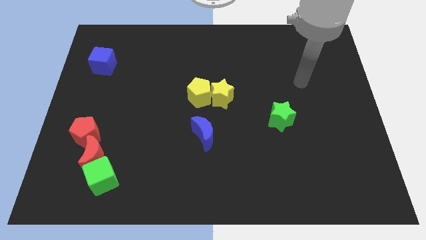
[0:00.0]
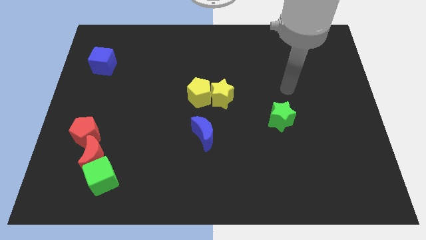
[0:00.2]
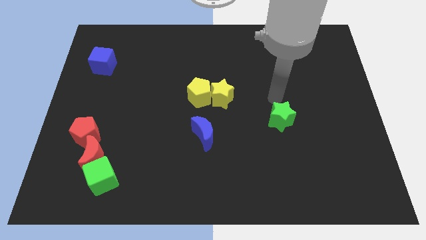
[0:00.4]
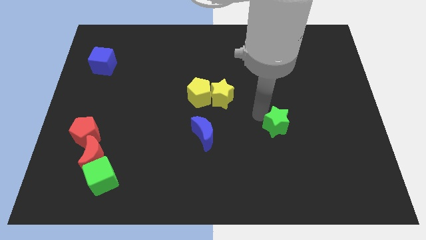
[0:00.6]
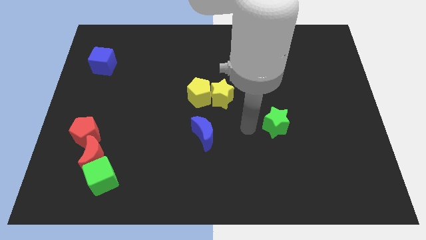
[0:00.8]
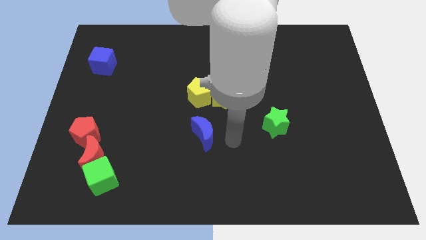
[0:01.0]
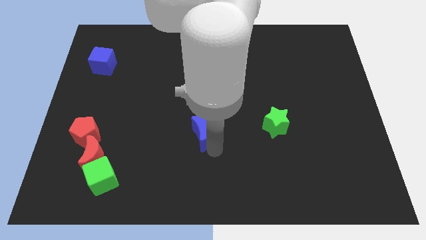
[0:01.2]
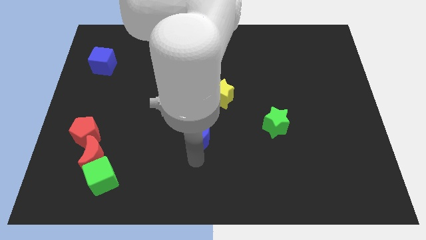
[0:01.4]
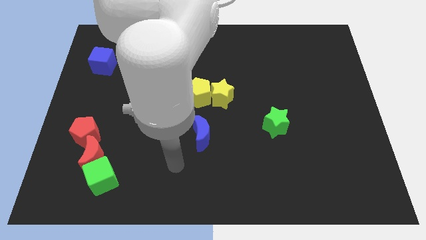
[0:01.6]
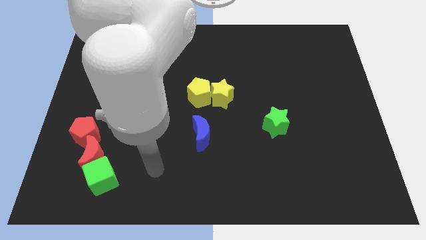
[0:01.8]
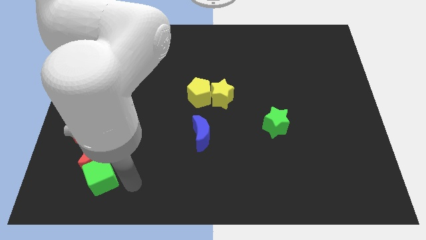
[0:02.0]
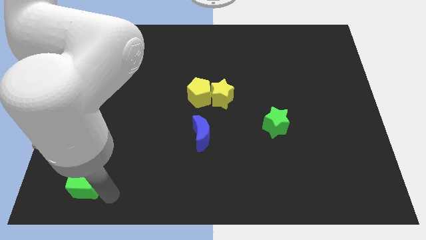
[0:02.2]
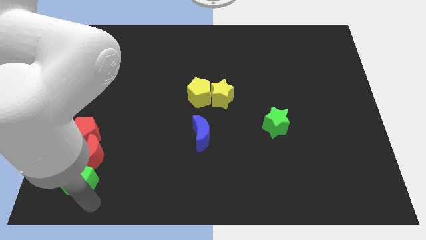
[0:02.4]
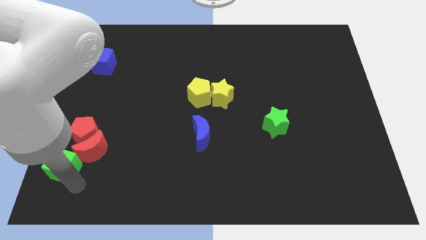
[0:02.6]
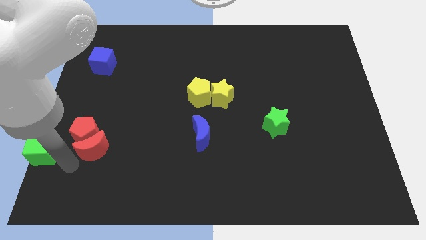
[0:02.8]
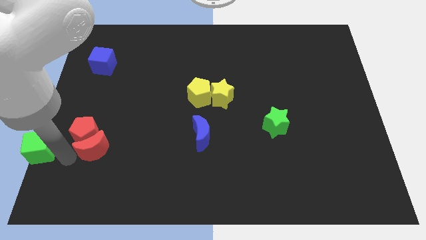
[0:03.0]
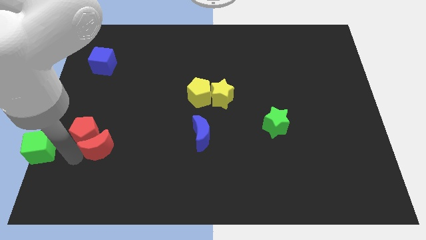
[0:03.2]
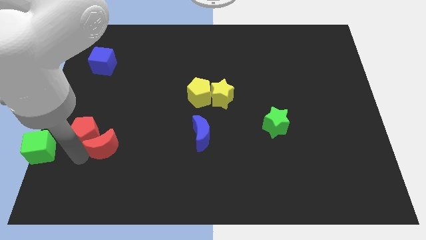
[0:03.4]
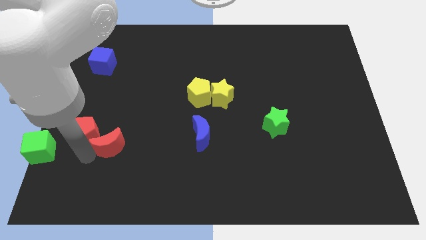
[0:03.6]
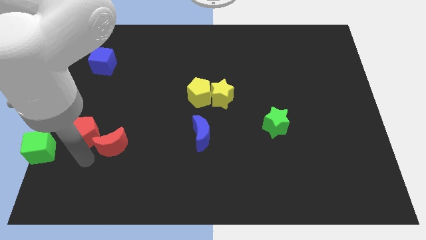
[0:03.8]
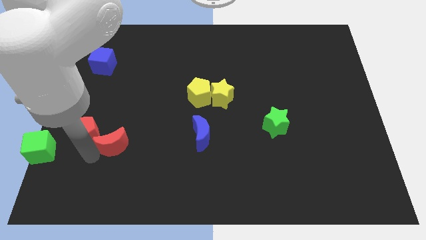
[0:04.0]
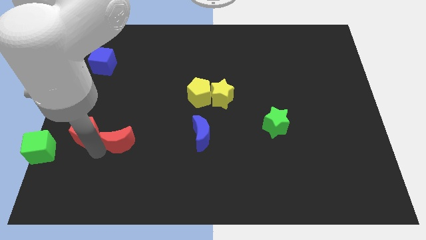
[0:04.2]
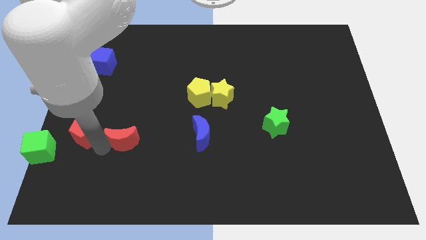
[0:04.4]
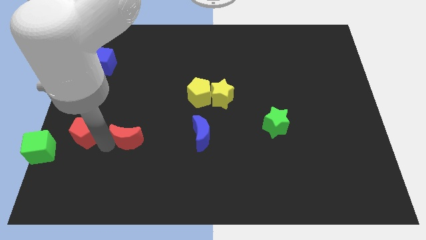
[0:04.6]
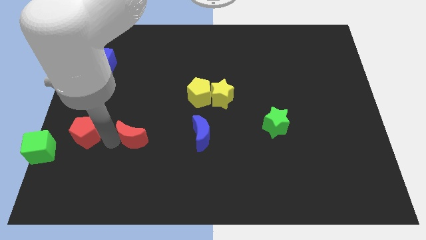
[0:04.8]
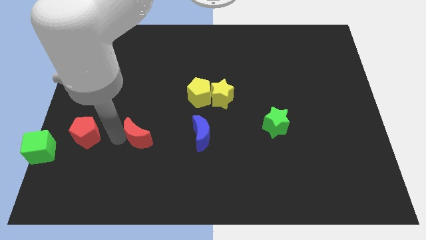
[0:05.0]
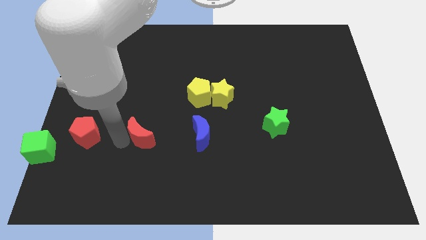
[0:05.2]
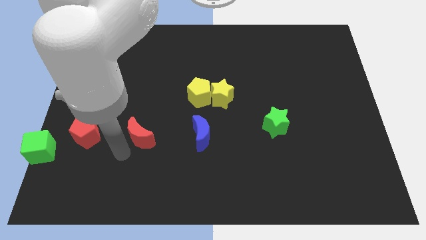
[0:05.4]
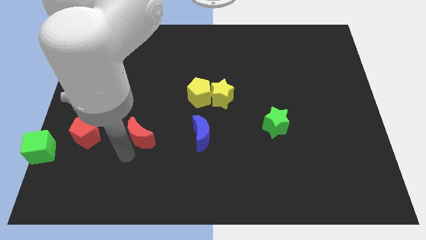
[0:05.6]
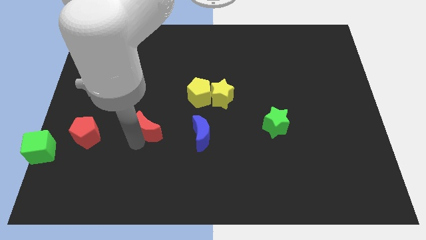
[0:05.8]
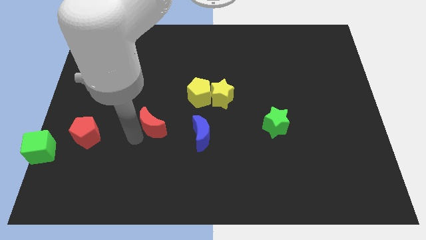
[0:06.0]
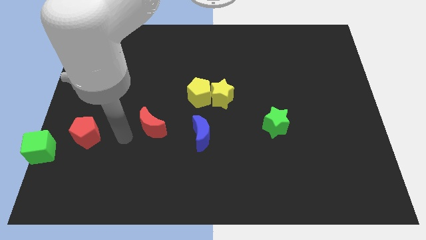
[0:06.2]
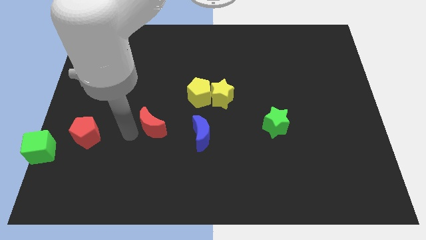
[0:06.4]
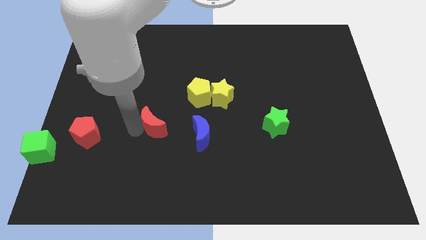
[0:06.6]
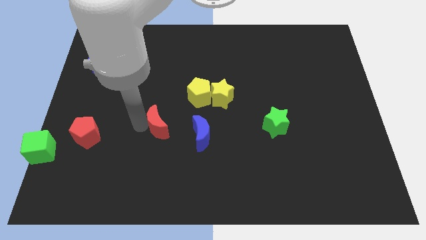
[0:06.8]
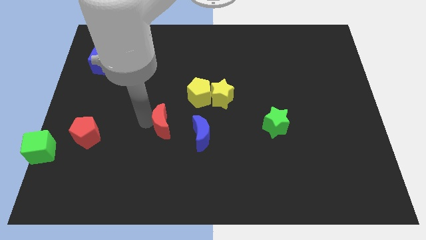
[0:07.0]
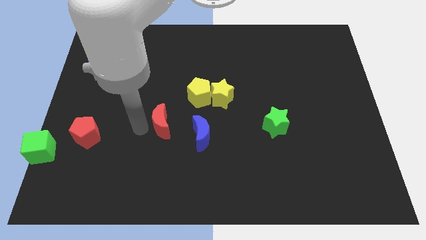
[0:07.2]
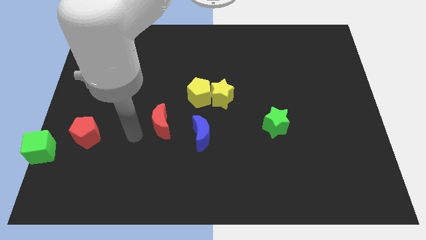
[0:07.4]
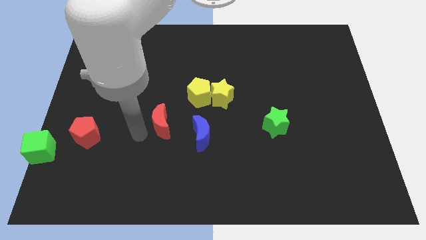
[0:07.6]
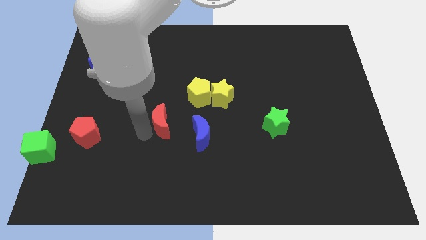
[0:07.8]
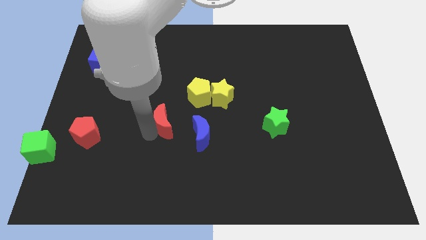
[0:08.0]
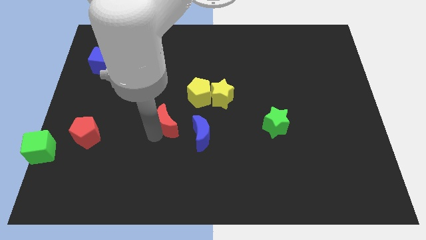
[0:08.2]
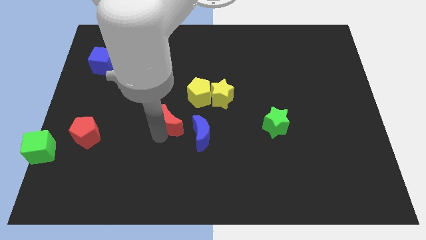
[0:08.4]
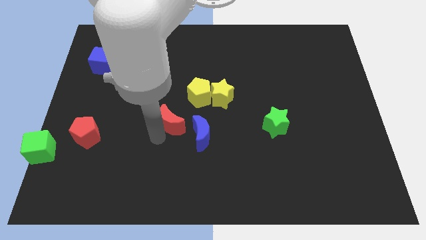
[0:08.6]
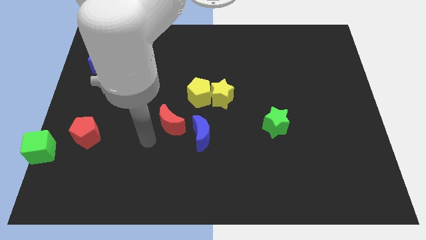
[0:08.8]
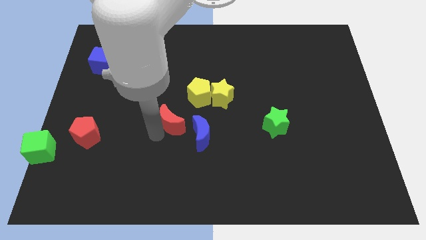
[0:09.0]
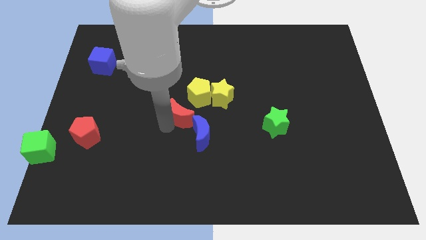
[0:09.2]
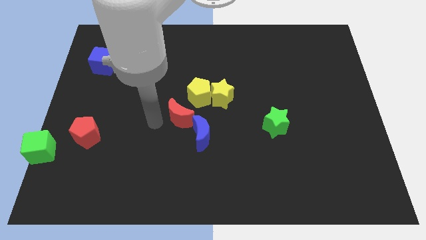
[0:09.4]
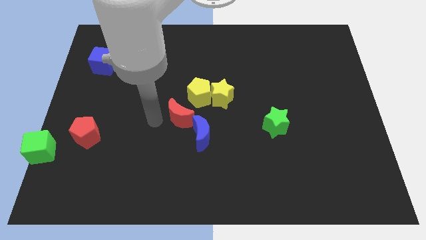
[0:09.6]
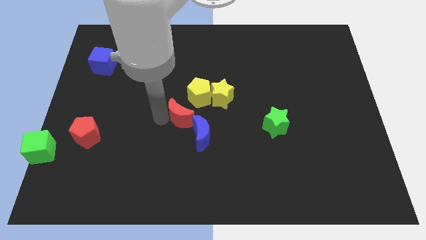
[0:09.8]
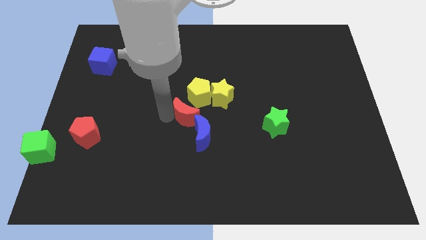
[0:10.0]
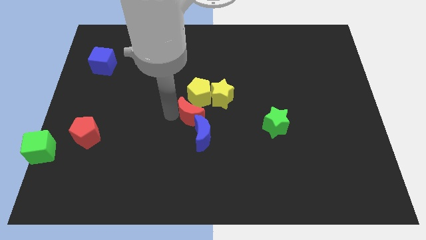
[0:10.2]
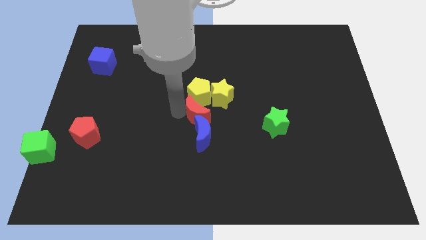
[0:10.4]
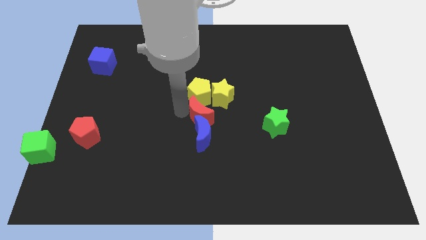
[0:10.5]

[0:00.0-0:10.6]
slide the red moon diagonally up and to the right of the blue moon

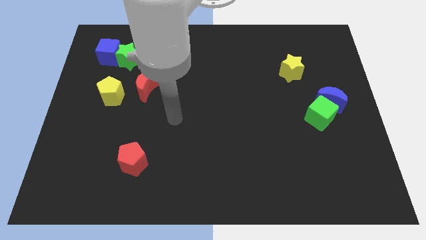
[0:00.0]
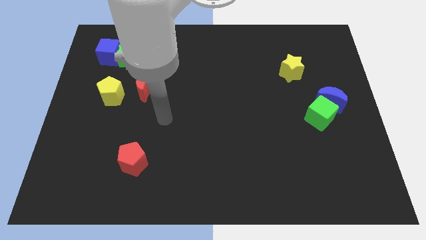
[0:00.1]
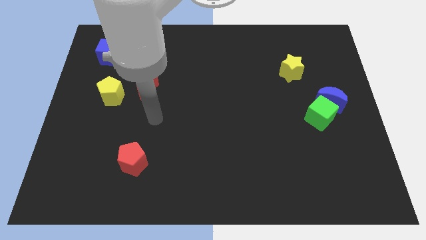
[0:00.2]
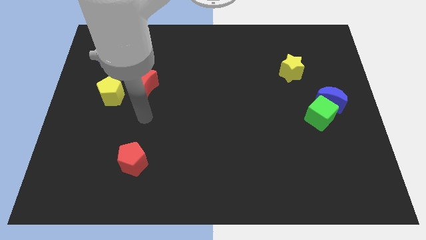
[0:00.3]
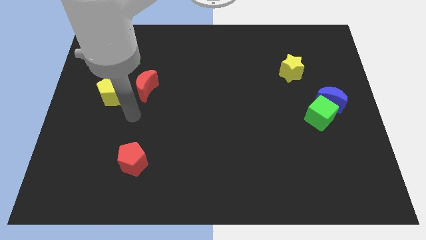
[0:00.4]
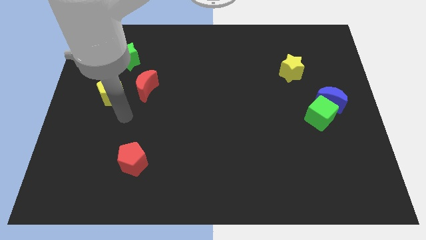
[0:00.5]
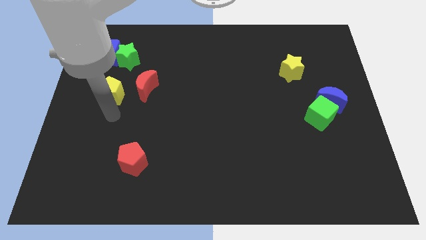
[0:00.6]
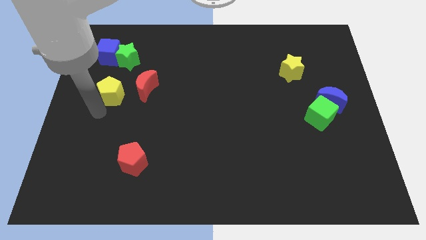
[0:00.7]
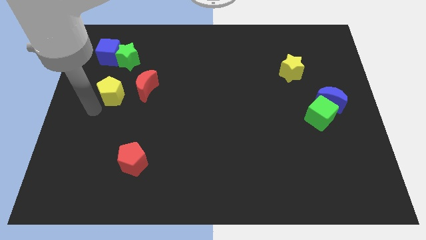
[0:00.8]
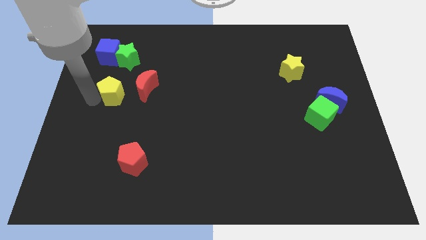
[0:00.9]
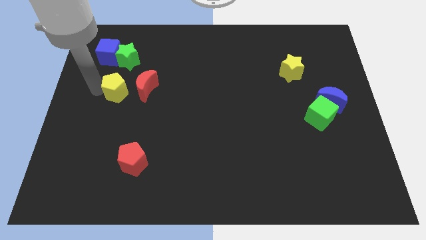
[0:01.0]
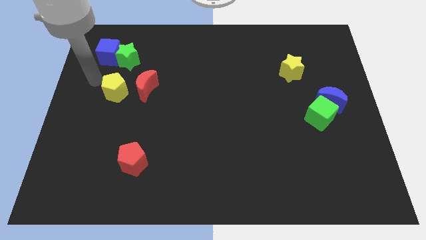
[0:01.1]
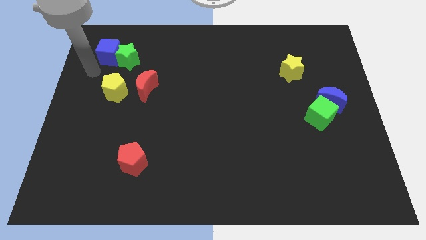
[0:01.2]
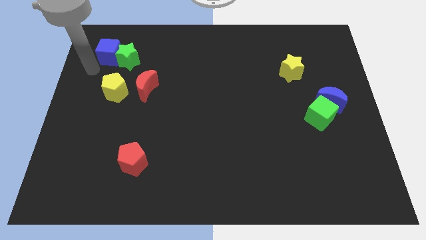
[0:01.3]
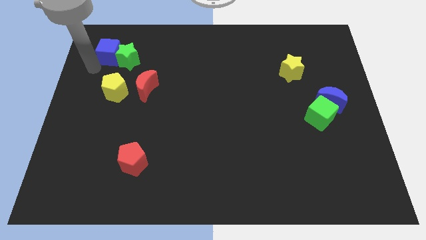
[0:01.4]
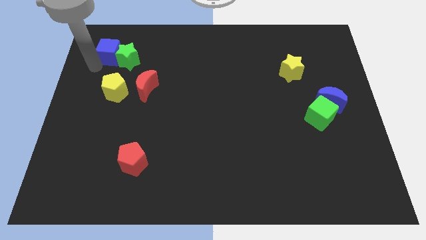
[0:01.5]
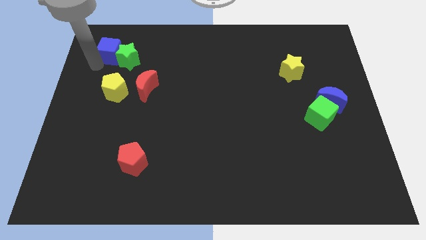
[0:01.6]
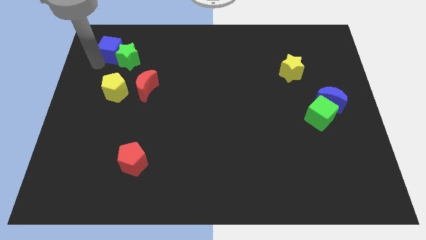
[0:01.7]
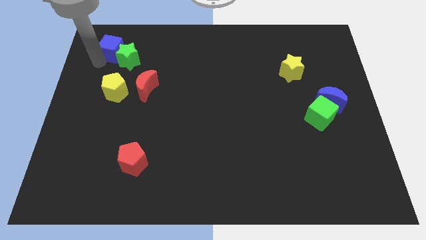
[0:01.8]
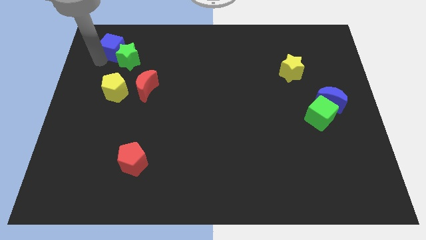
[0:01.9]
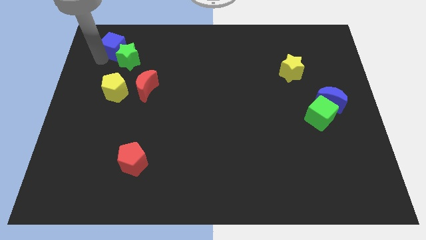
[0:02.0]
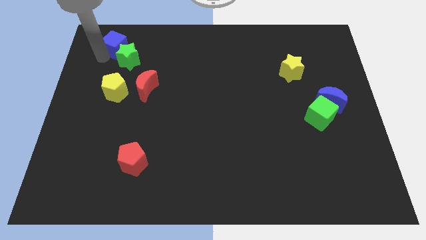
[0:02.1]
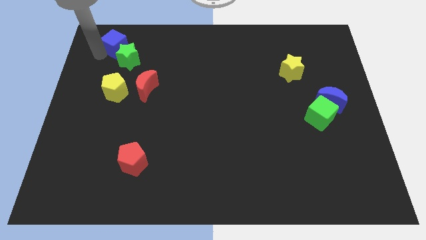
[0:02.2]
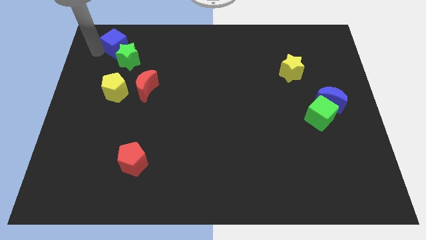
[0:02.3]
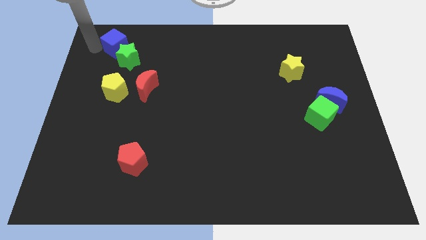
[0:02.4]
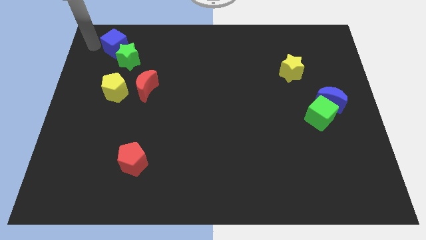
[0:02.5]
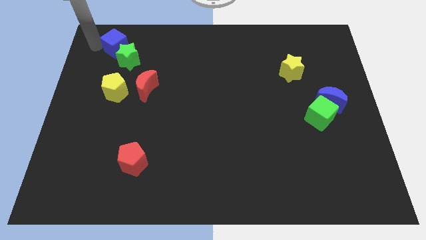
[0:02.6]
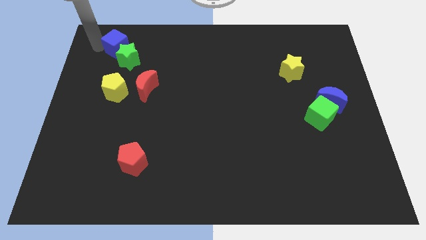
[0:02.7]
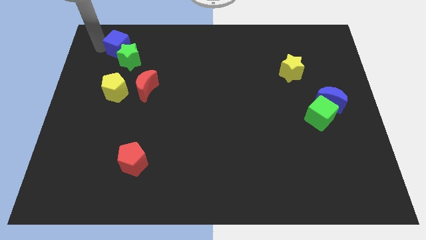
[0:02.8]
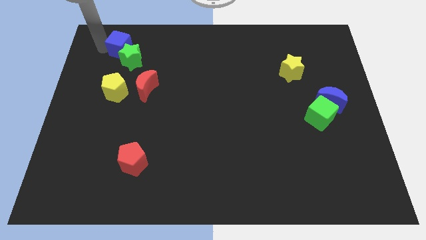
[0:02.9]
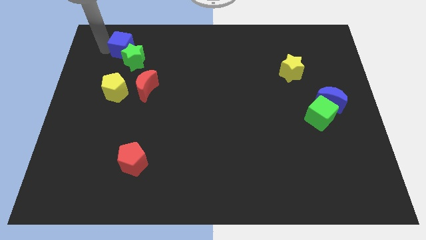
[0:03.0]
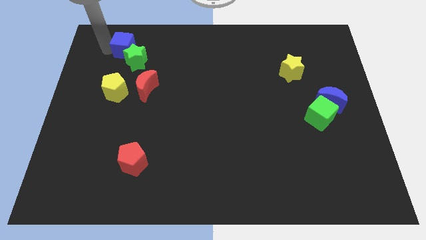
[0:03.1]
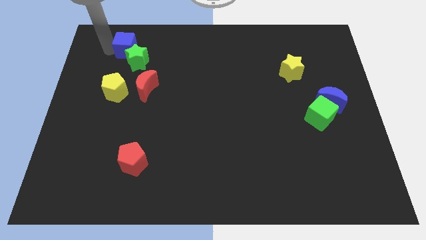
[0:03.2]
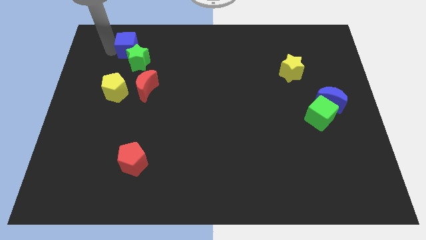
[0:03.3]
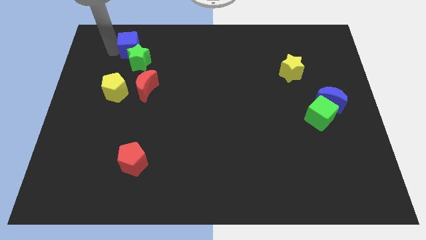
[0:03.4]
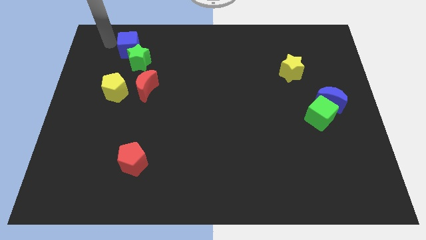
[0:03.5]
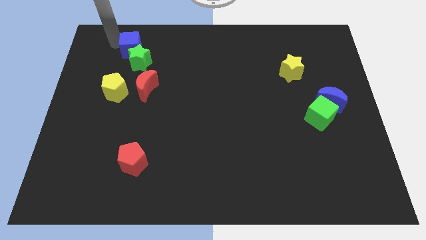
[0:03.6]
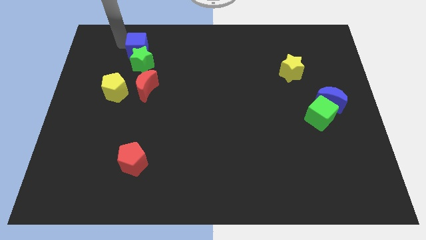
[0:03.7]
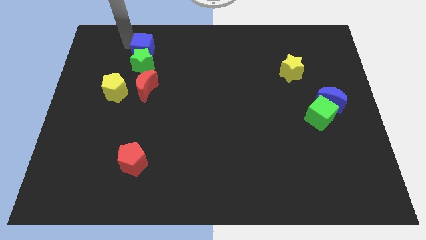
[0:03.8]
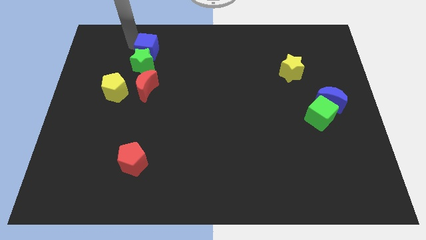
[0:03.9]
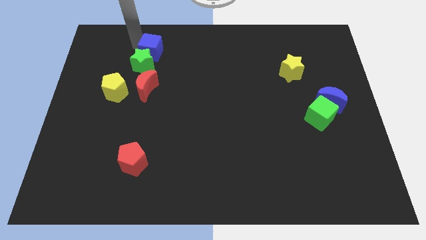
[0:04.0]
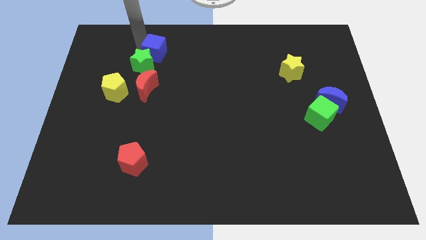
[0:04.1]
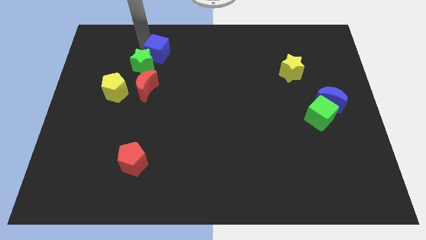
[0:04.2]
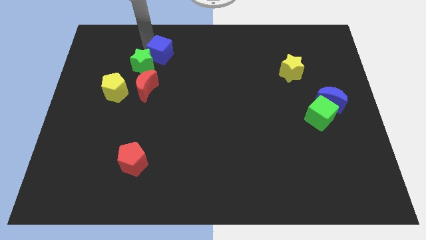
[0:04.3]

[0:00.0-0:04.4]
move the blue cube to the right side of the green star
